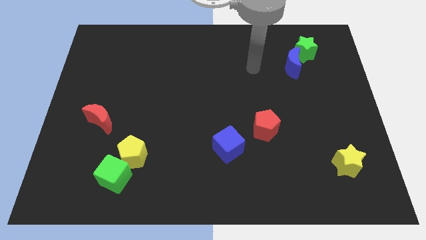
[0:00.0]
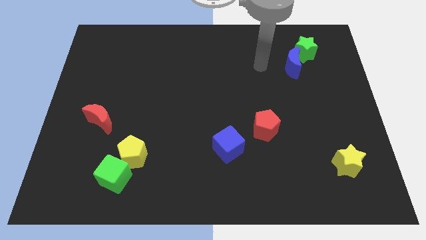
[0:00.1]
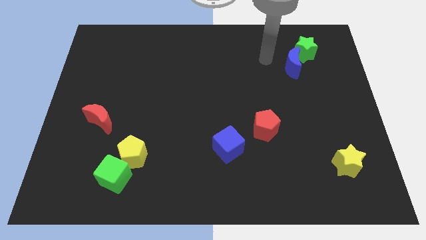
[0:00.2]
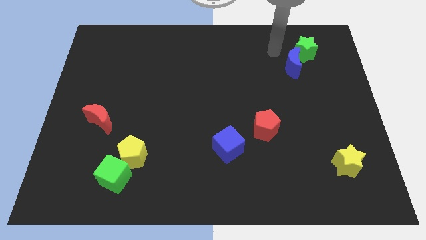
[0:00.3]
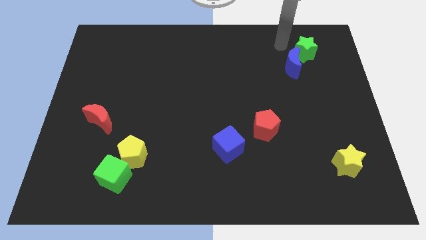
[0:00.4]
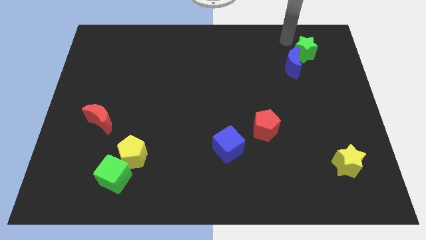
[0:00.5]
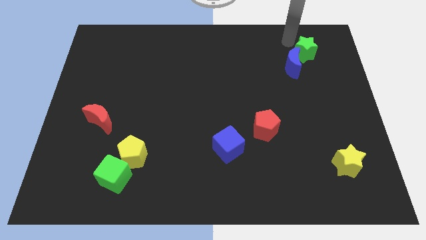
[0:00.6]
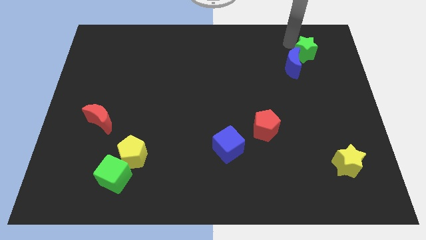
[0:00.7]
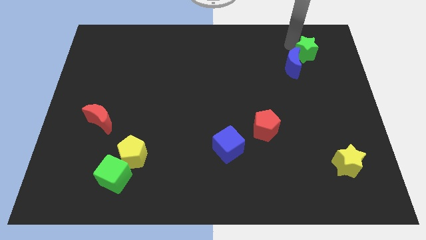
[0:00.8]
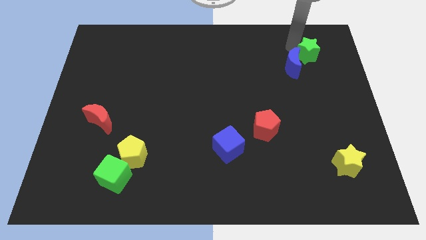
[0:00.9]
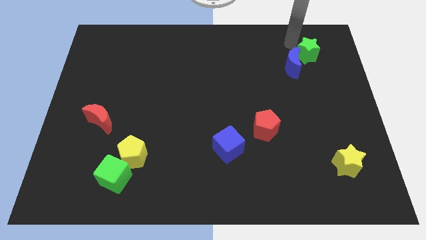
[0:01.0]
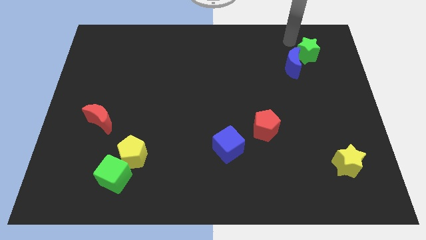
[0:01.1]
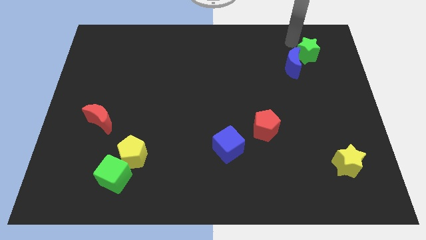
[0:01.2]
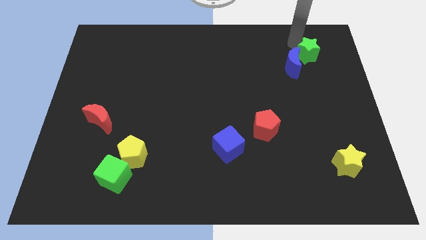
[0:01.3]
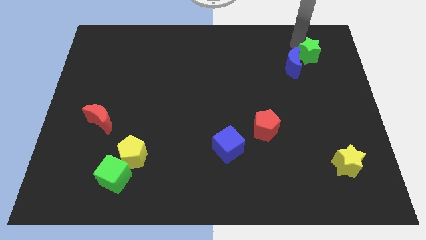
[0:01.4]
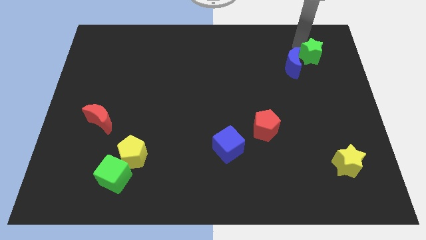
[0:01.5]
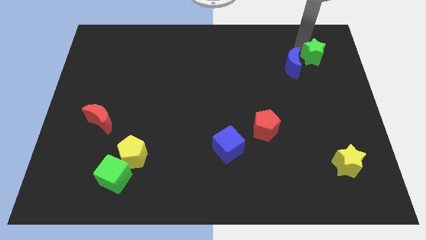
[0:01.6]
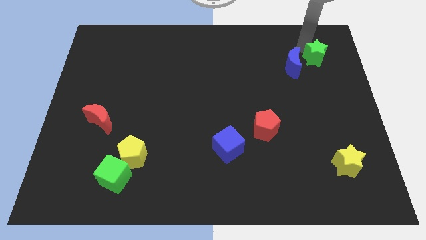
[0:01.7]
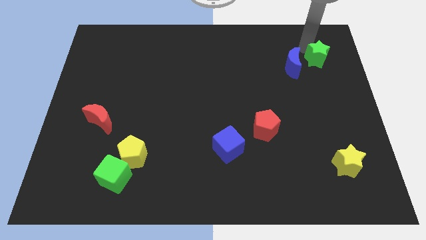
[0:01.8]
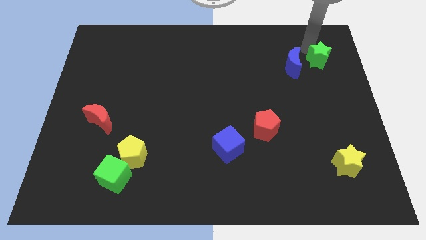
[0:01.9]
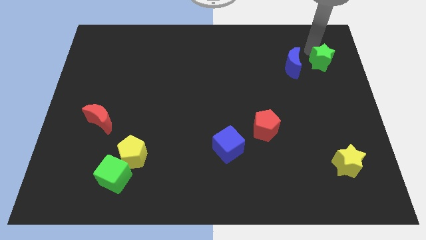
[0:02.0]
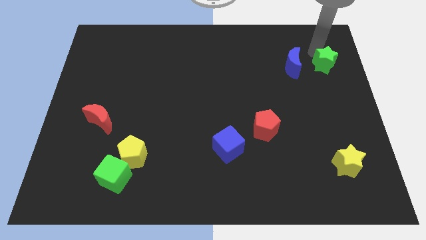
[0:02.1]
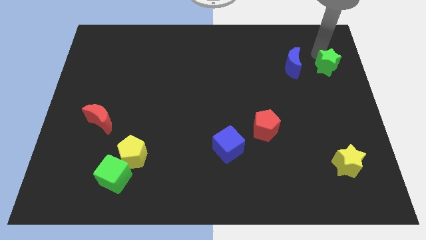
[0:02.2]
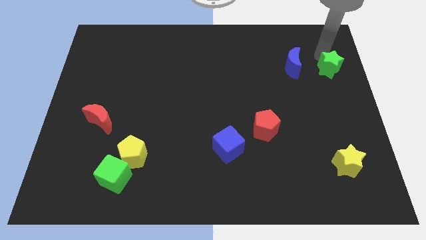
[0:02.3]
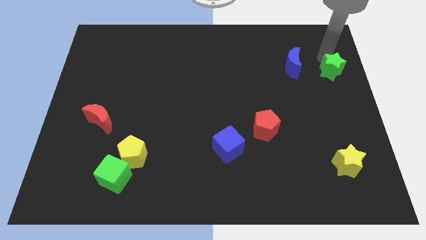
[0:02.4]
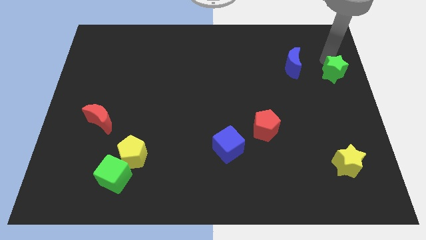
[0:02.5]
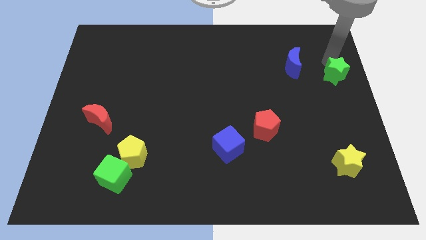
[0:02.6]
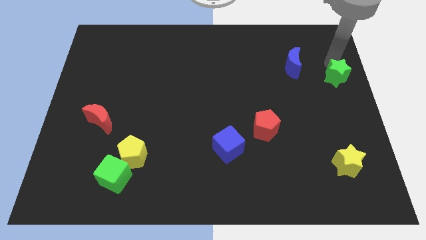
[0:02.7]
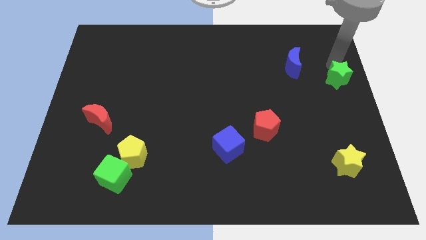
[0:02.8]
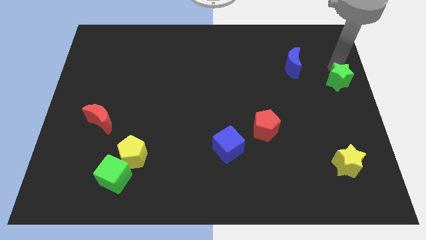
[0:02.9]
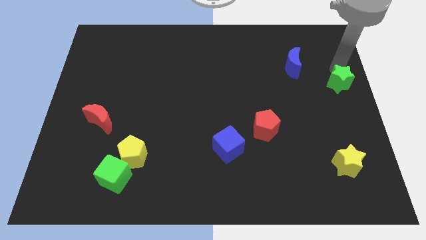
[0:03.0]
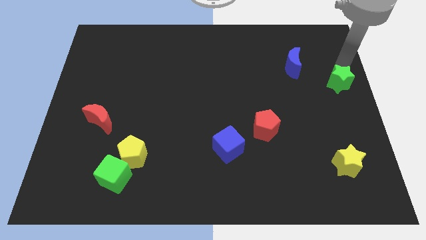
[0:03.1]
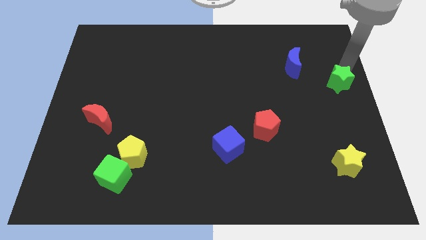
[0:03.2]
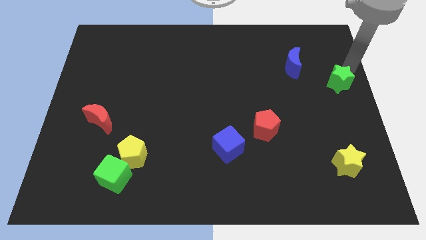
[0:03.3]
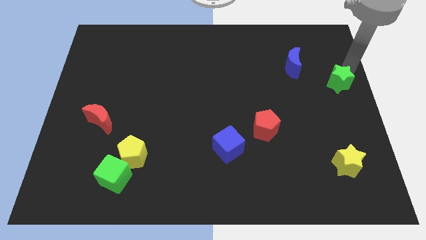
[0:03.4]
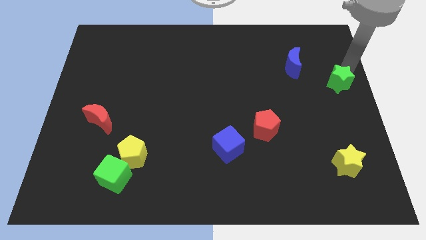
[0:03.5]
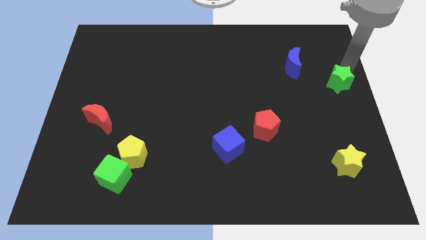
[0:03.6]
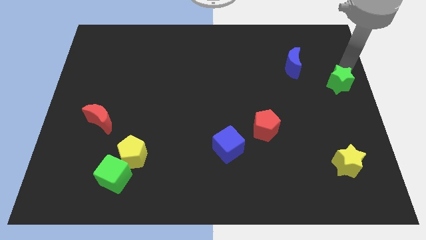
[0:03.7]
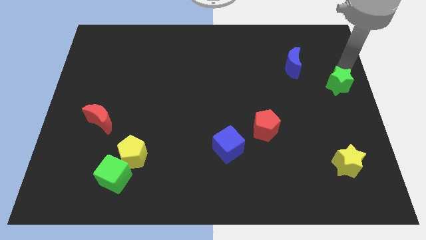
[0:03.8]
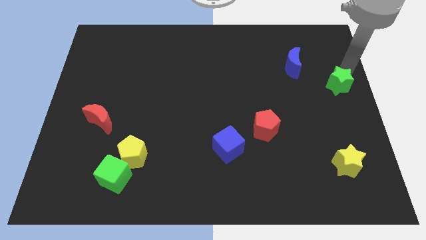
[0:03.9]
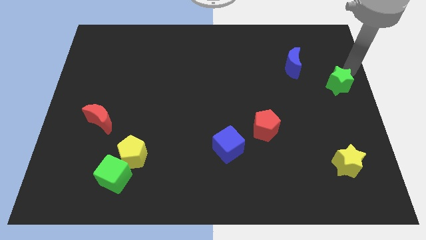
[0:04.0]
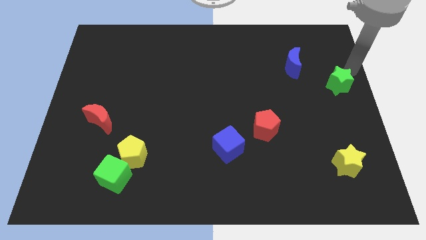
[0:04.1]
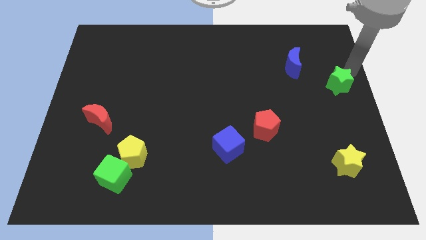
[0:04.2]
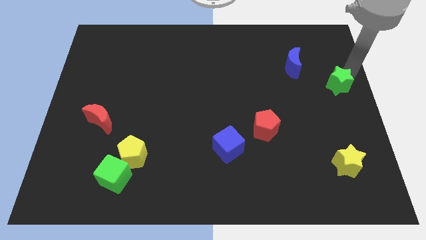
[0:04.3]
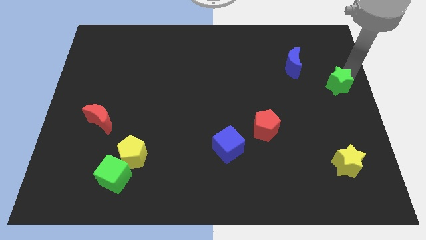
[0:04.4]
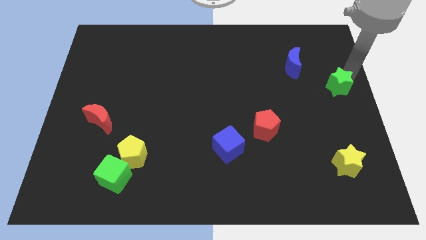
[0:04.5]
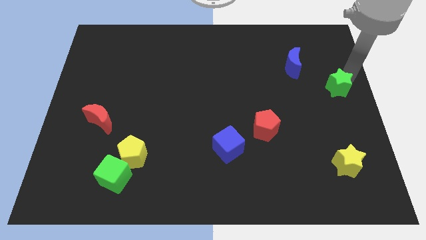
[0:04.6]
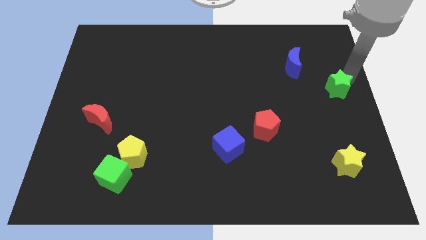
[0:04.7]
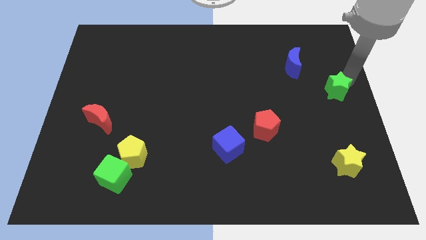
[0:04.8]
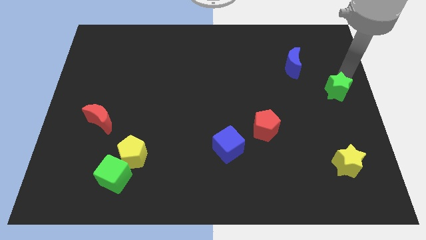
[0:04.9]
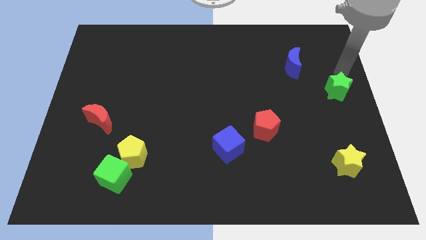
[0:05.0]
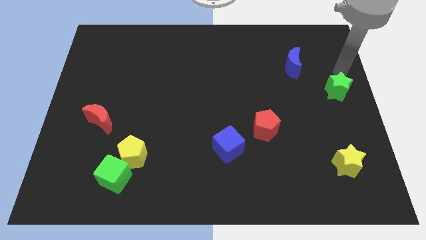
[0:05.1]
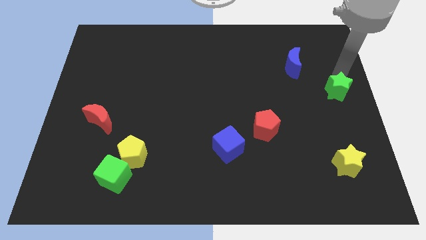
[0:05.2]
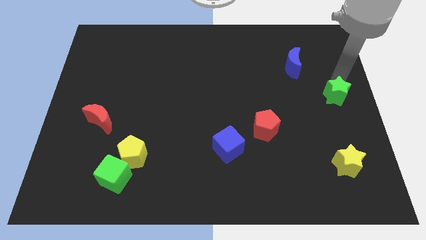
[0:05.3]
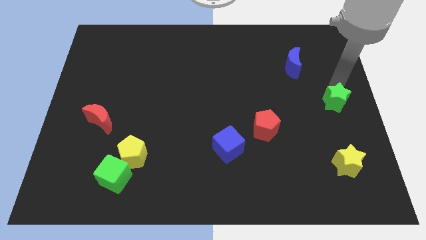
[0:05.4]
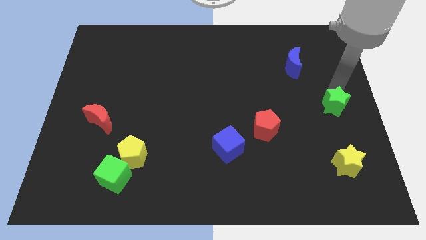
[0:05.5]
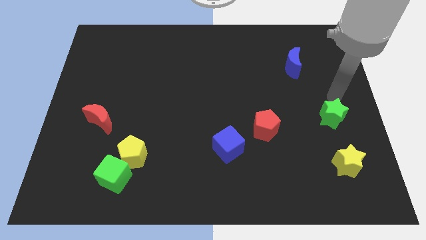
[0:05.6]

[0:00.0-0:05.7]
slide the green star downwards

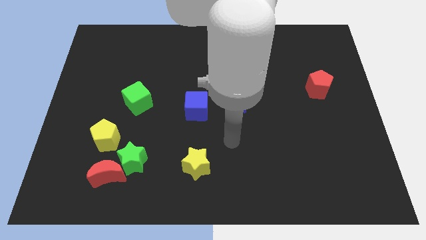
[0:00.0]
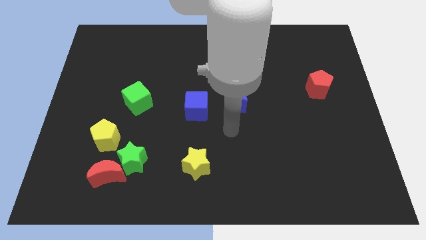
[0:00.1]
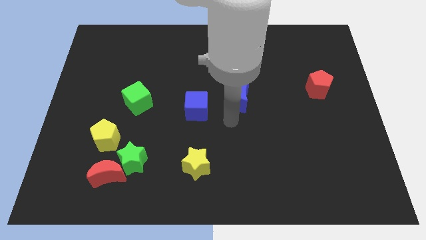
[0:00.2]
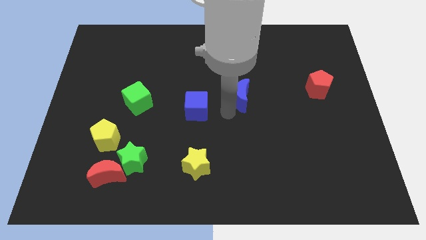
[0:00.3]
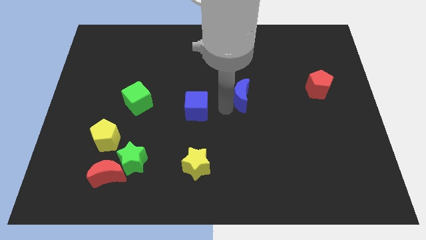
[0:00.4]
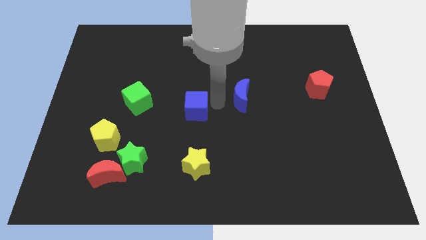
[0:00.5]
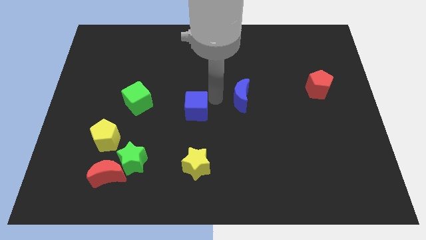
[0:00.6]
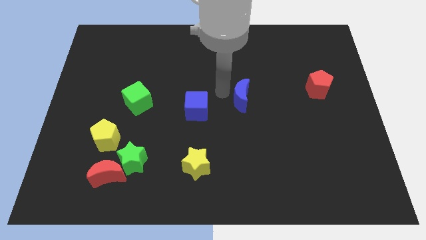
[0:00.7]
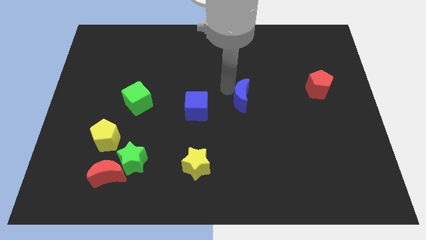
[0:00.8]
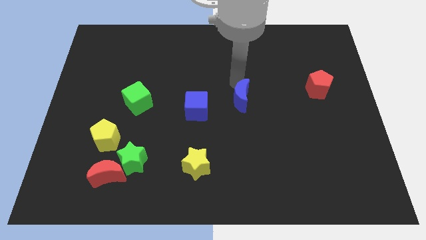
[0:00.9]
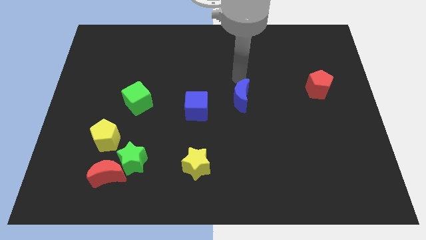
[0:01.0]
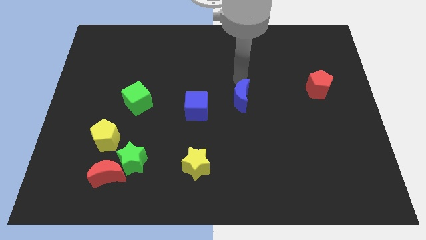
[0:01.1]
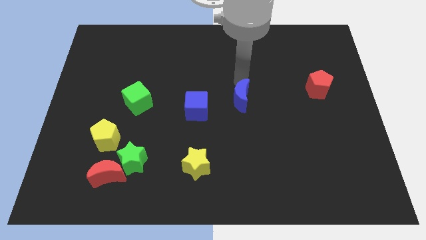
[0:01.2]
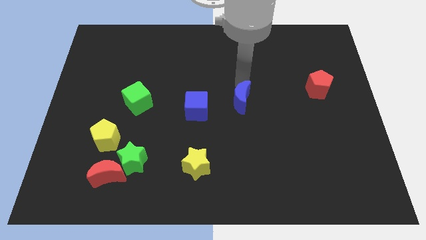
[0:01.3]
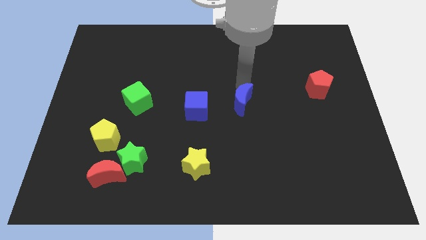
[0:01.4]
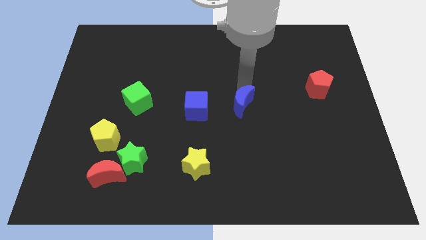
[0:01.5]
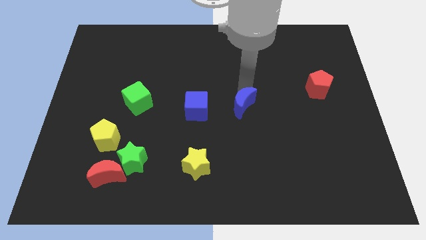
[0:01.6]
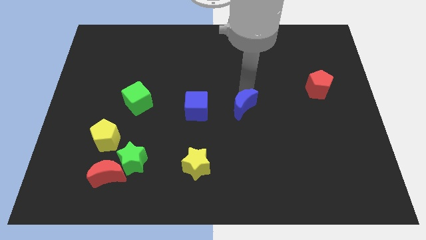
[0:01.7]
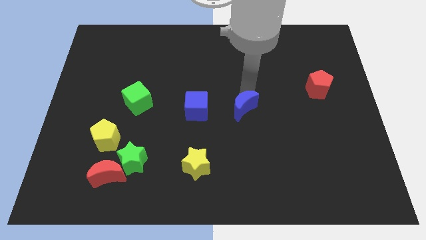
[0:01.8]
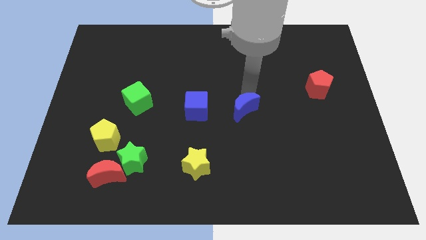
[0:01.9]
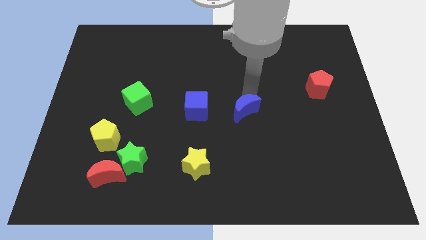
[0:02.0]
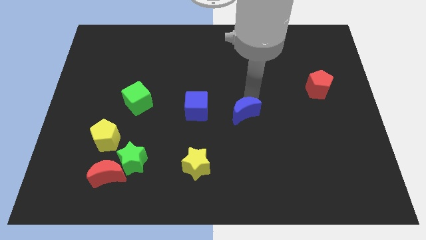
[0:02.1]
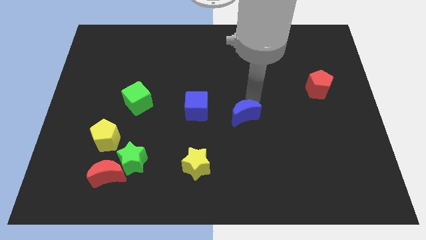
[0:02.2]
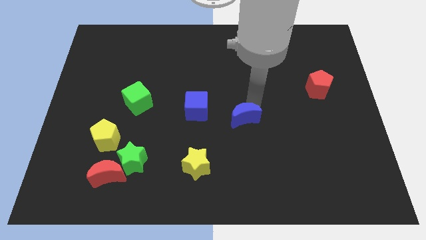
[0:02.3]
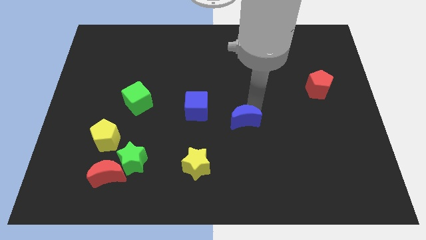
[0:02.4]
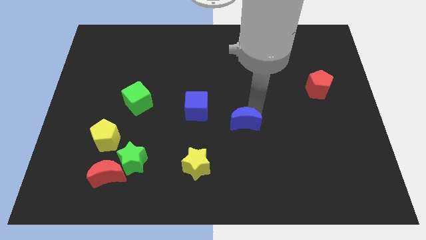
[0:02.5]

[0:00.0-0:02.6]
push the blue moon a little down

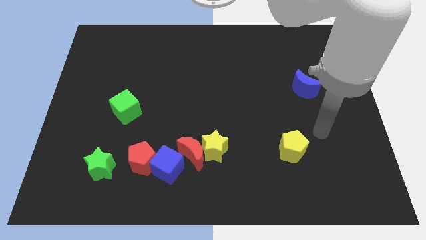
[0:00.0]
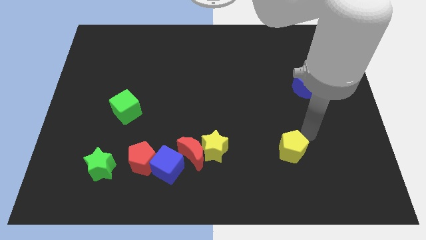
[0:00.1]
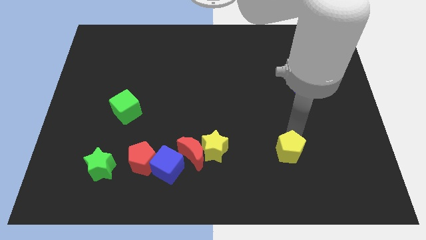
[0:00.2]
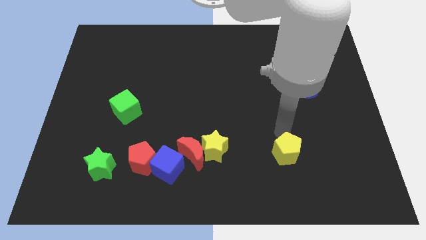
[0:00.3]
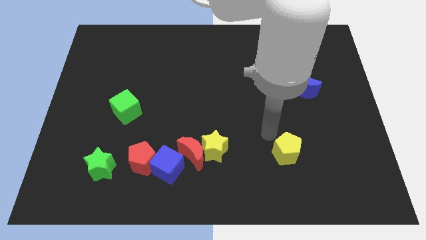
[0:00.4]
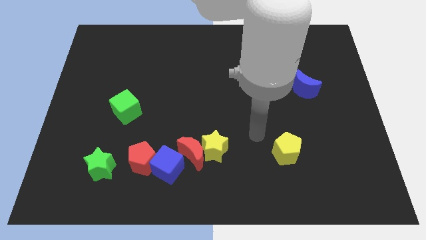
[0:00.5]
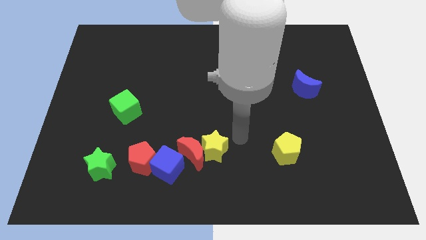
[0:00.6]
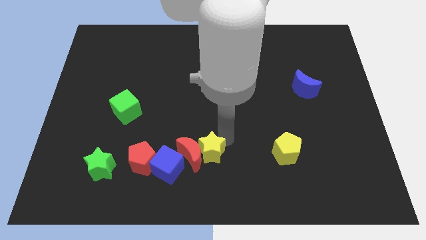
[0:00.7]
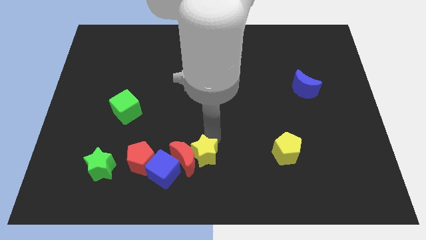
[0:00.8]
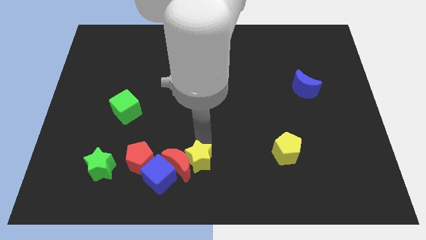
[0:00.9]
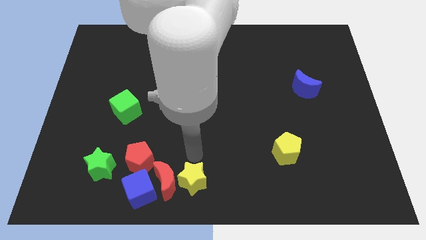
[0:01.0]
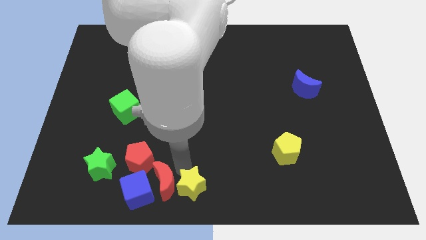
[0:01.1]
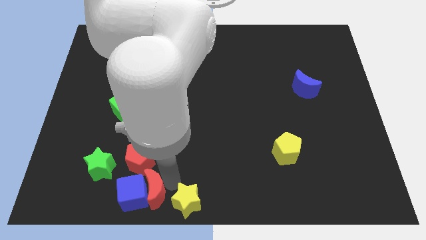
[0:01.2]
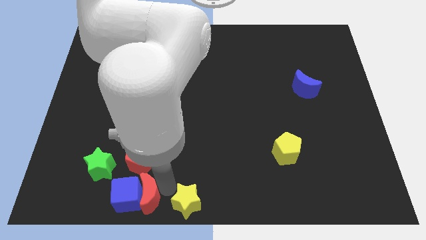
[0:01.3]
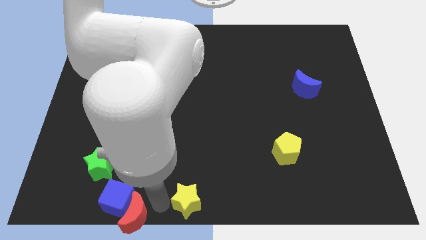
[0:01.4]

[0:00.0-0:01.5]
move the blue cube slightly to the left
